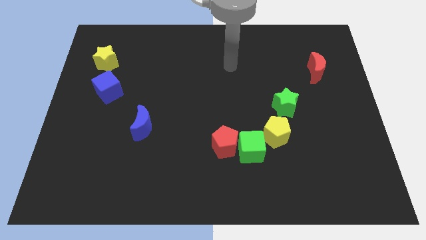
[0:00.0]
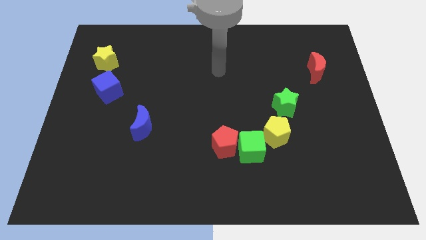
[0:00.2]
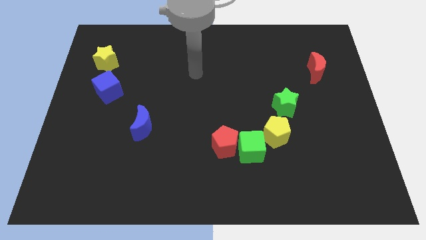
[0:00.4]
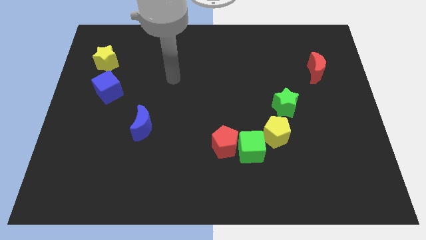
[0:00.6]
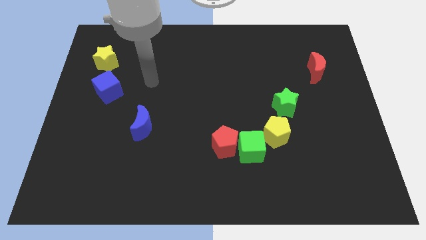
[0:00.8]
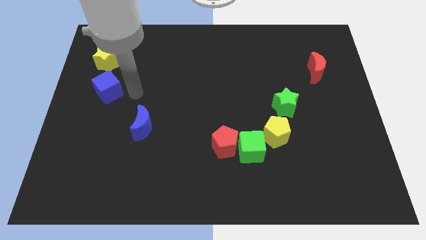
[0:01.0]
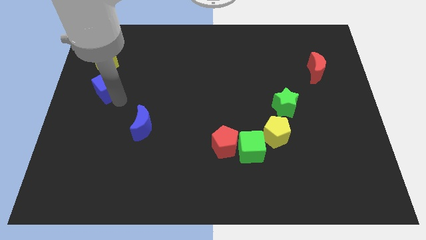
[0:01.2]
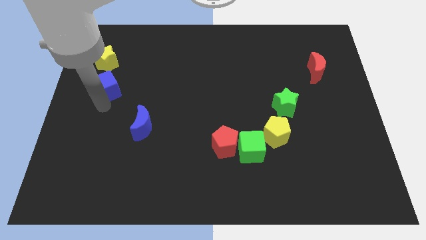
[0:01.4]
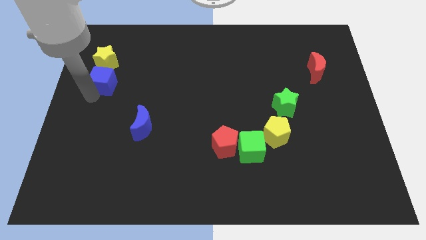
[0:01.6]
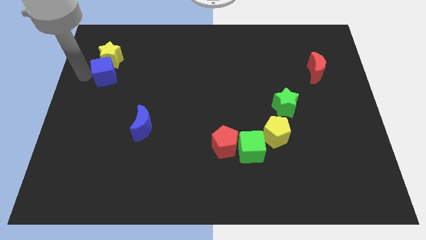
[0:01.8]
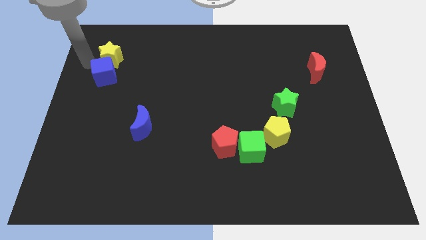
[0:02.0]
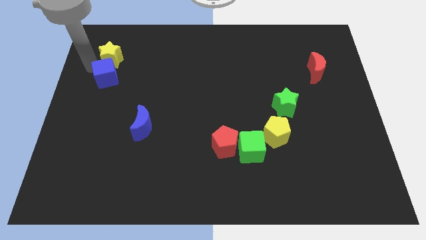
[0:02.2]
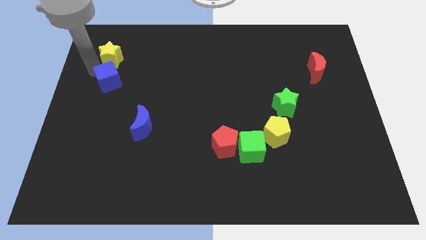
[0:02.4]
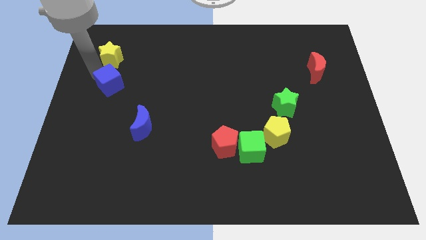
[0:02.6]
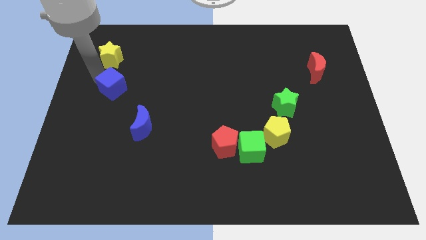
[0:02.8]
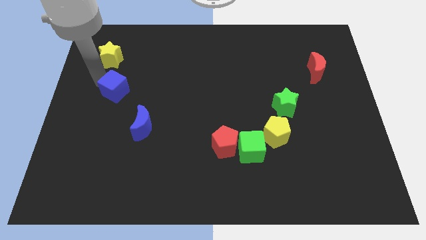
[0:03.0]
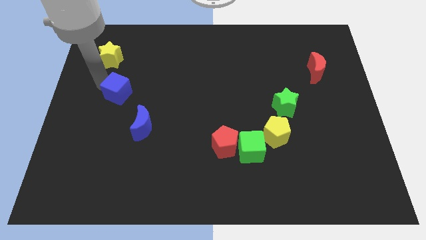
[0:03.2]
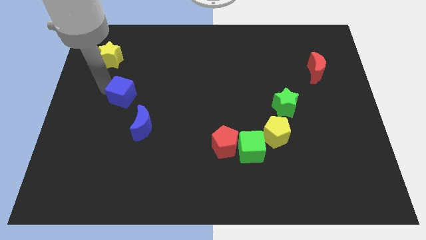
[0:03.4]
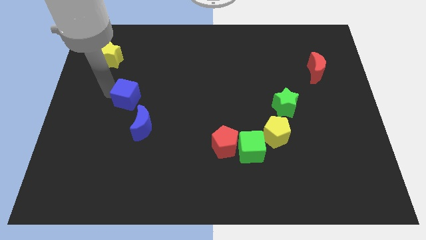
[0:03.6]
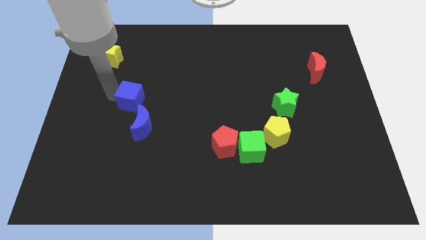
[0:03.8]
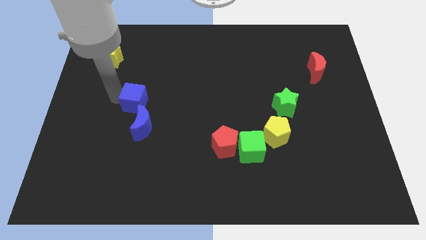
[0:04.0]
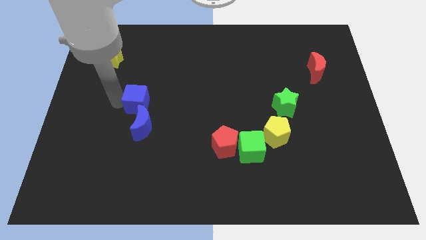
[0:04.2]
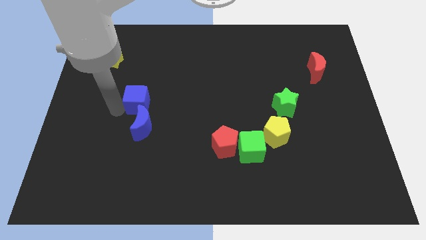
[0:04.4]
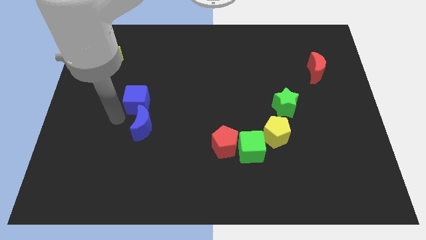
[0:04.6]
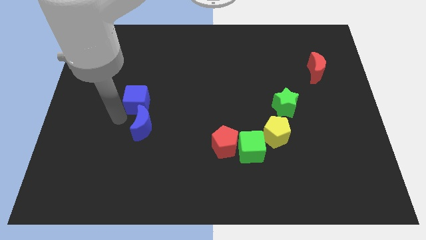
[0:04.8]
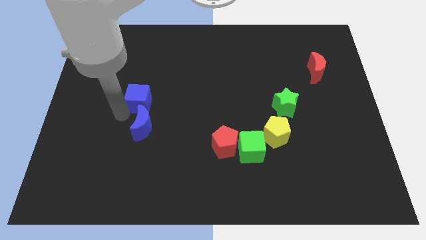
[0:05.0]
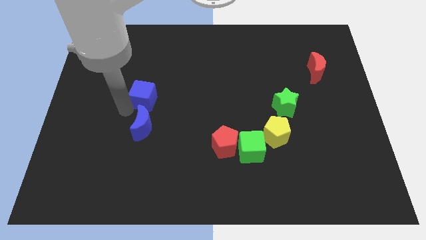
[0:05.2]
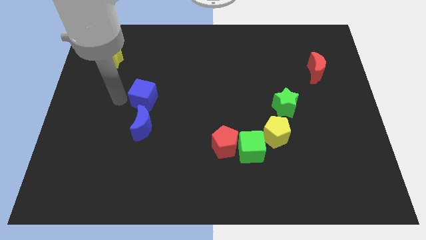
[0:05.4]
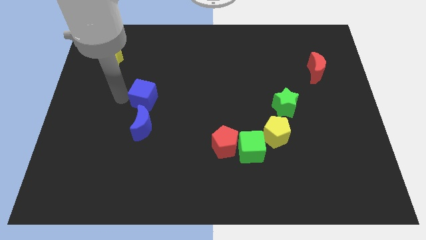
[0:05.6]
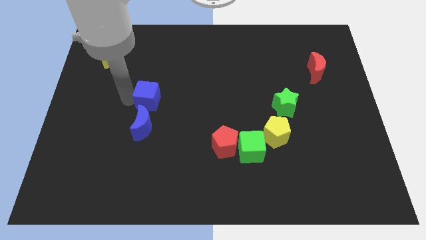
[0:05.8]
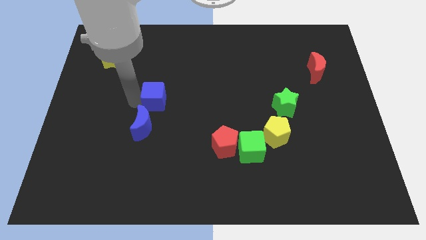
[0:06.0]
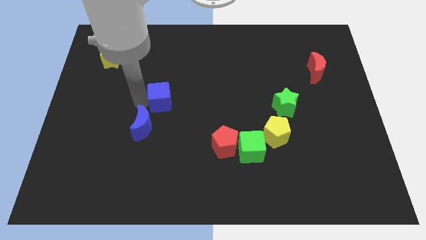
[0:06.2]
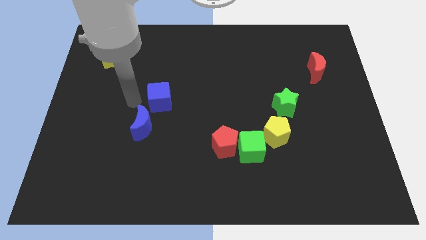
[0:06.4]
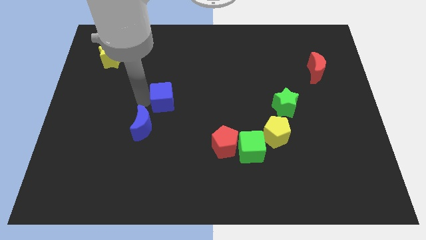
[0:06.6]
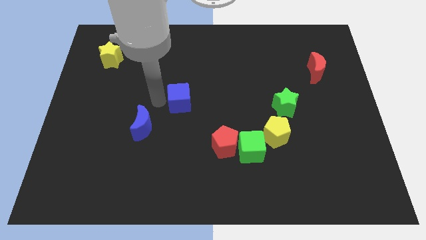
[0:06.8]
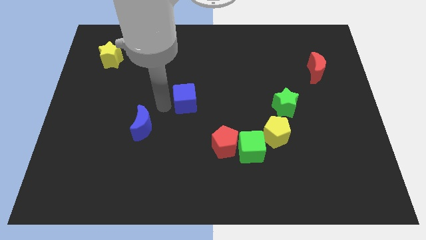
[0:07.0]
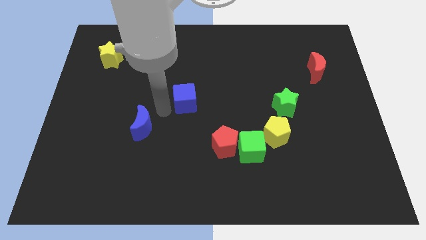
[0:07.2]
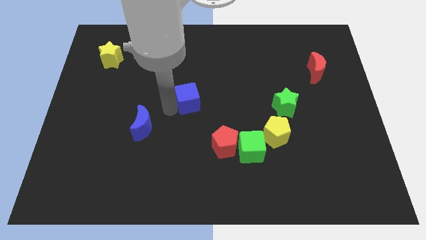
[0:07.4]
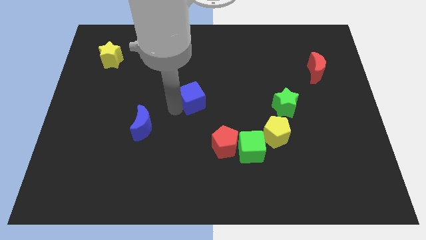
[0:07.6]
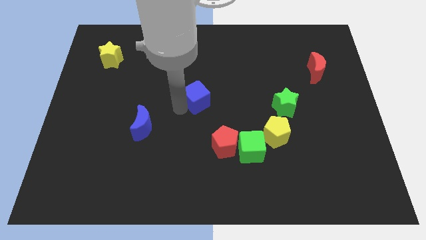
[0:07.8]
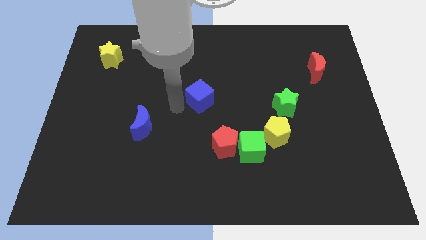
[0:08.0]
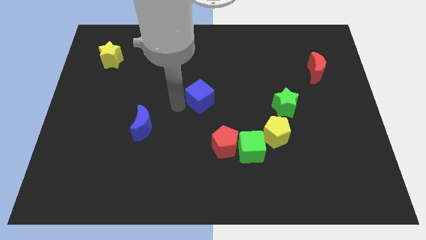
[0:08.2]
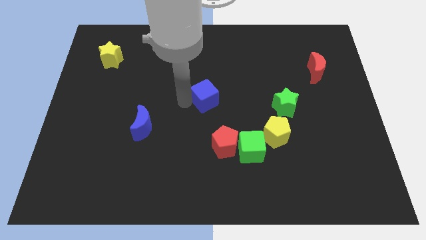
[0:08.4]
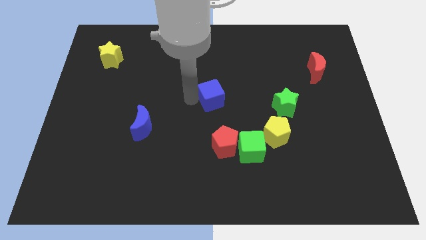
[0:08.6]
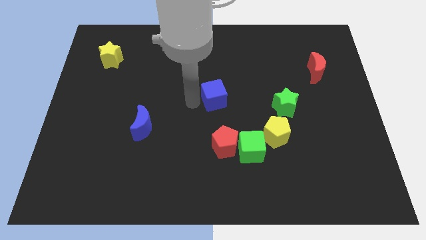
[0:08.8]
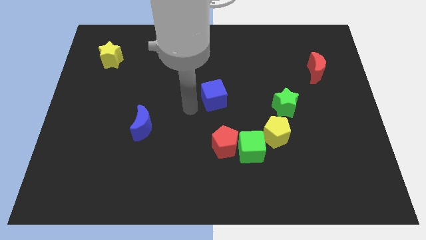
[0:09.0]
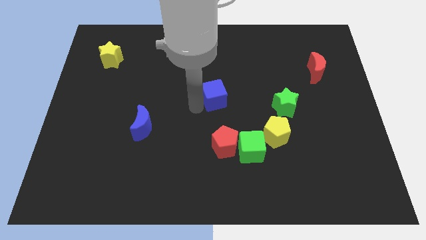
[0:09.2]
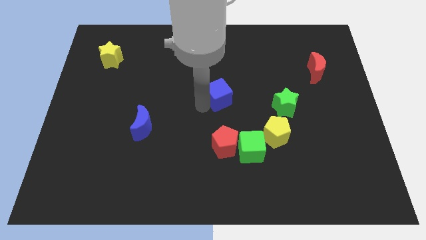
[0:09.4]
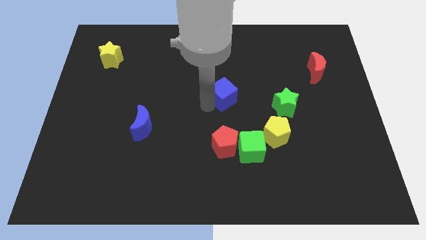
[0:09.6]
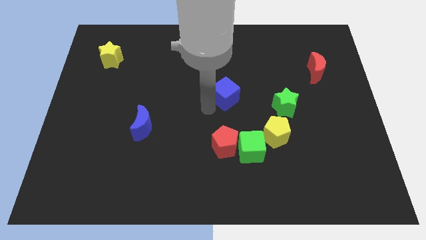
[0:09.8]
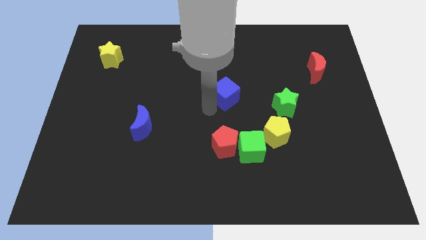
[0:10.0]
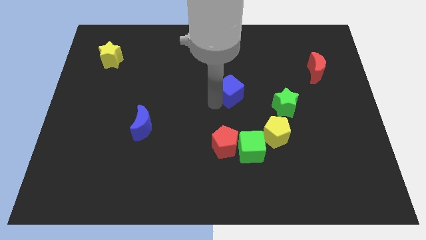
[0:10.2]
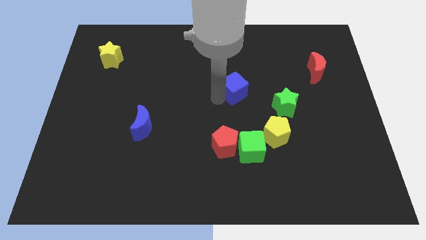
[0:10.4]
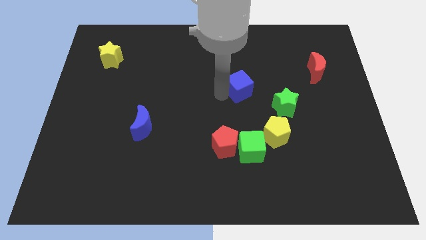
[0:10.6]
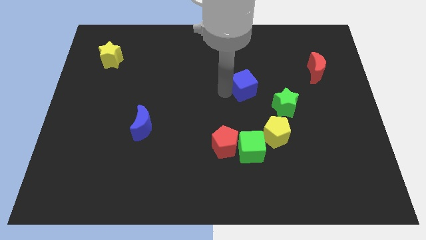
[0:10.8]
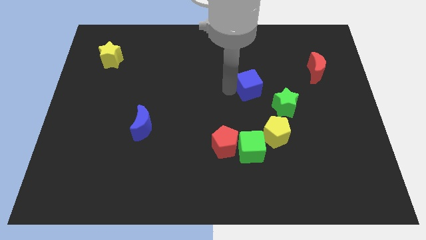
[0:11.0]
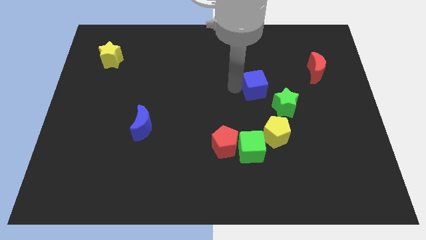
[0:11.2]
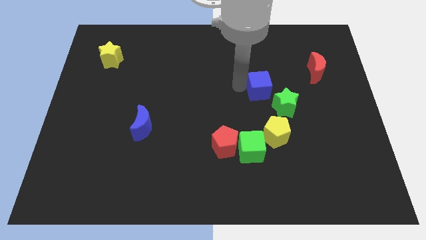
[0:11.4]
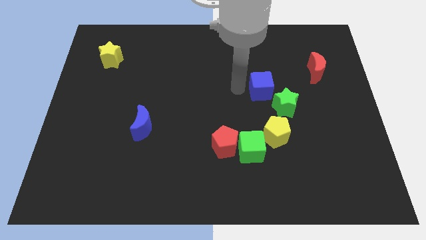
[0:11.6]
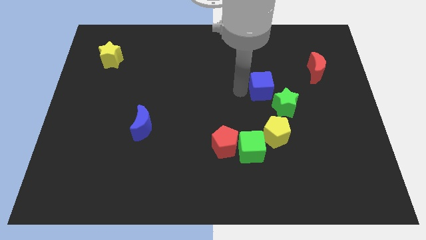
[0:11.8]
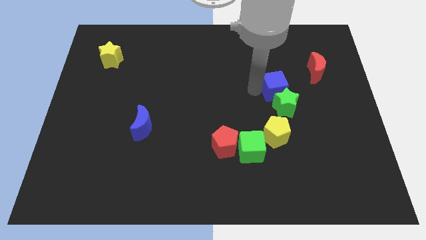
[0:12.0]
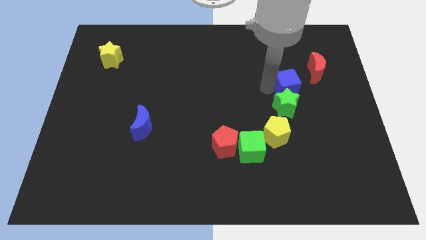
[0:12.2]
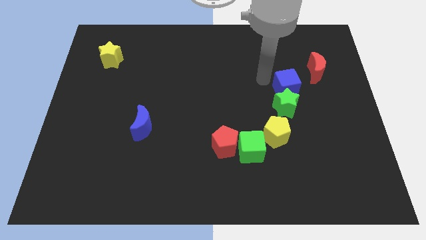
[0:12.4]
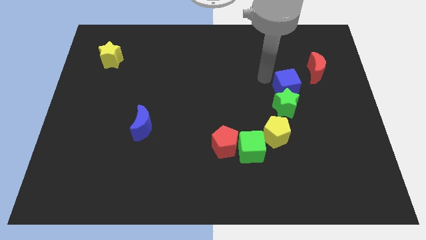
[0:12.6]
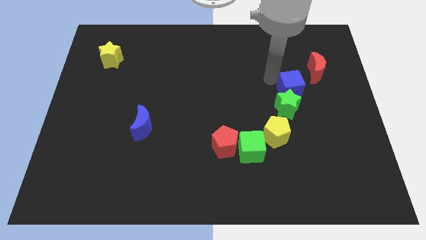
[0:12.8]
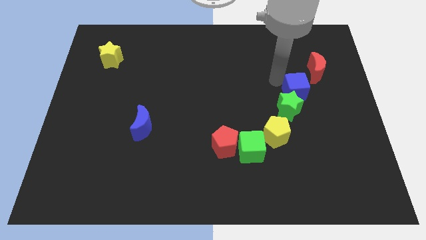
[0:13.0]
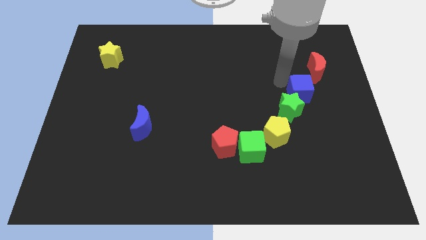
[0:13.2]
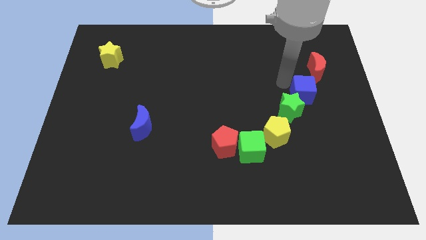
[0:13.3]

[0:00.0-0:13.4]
push the blue cube below the red moon

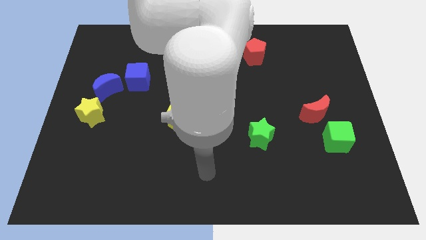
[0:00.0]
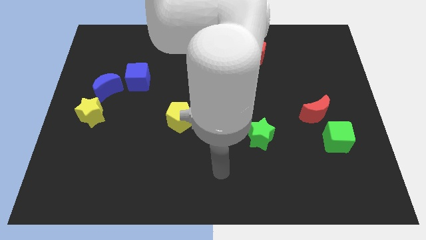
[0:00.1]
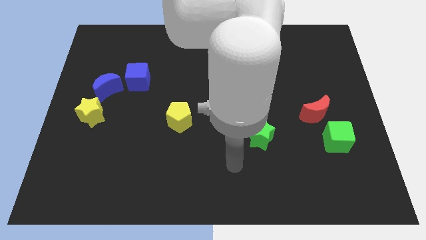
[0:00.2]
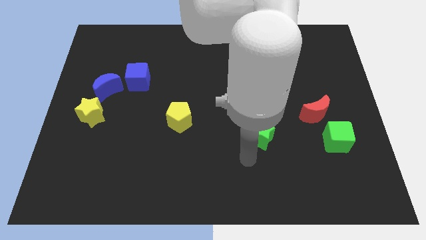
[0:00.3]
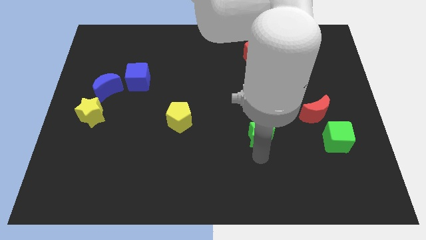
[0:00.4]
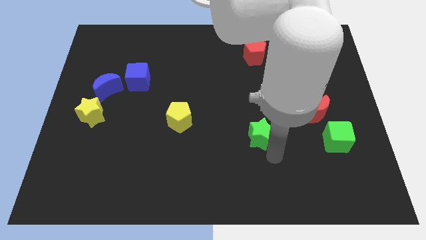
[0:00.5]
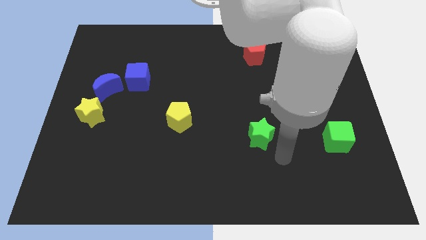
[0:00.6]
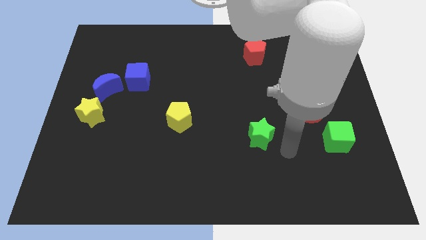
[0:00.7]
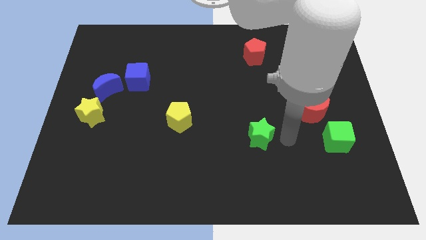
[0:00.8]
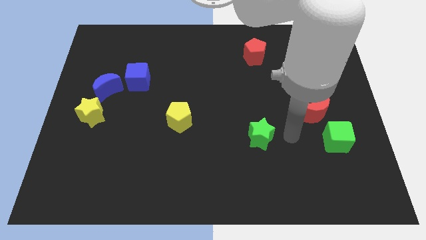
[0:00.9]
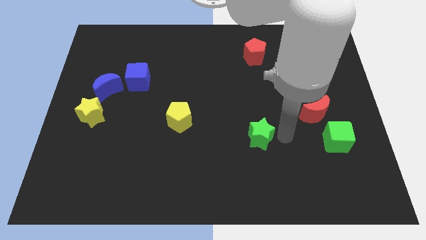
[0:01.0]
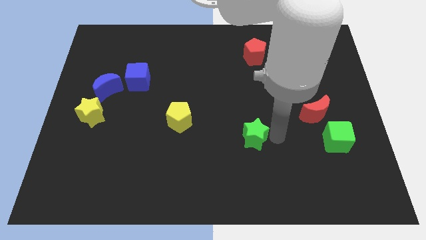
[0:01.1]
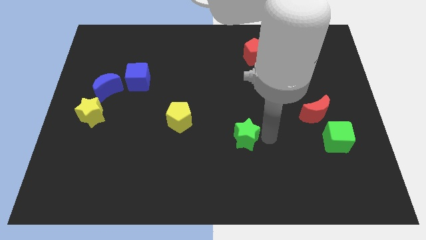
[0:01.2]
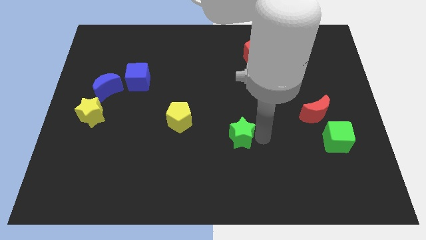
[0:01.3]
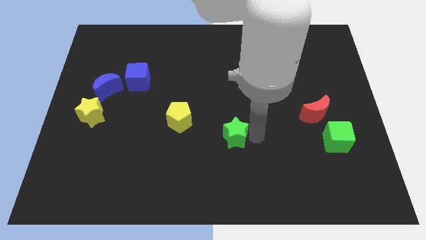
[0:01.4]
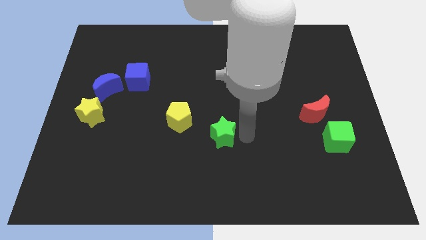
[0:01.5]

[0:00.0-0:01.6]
move the green star diagonally down and to the right of the yellow pentagon
